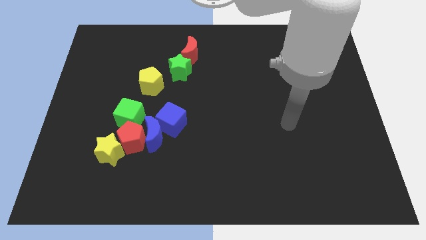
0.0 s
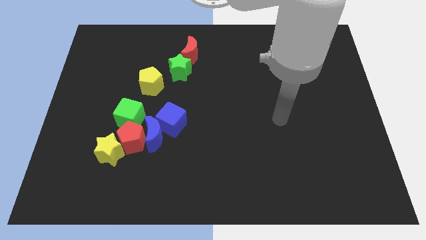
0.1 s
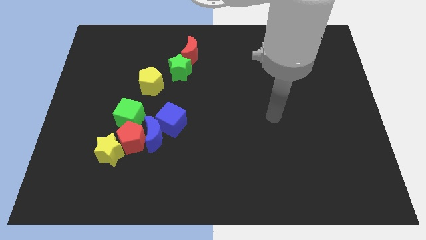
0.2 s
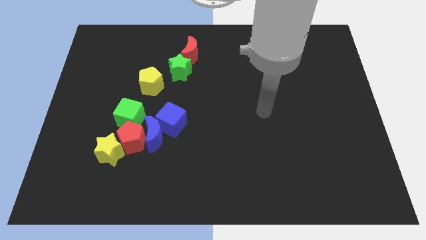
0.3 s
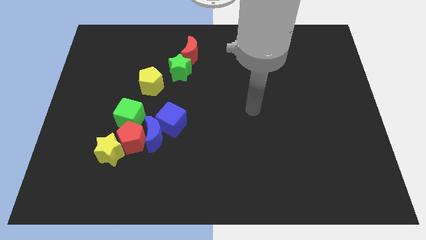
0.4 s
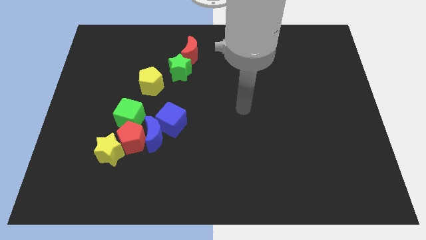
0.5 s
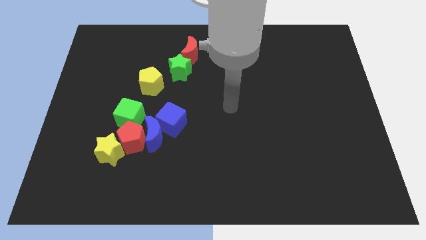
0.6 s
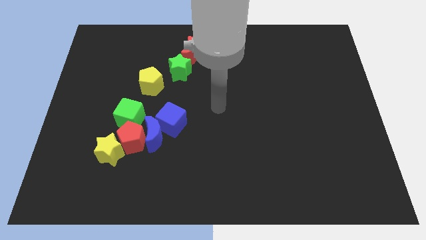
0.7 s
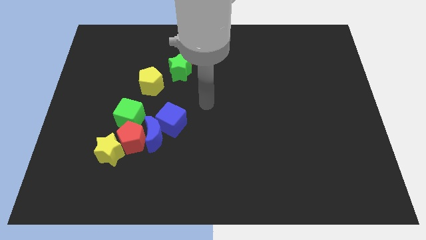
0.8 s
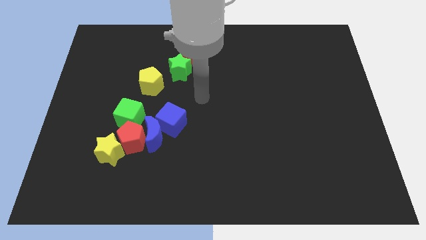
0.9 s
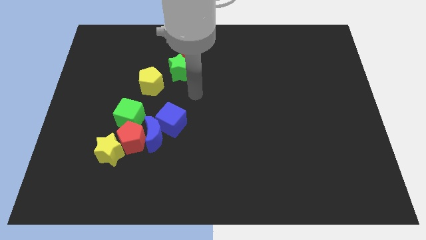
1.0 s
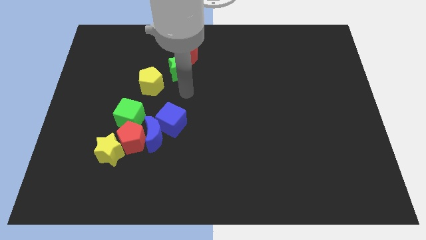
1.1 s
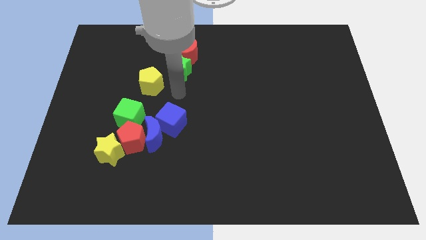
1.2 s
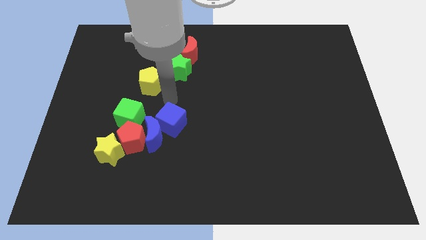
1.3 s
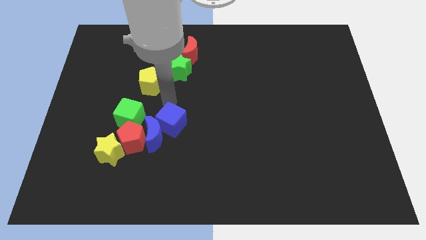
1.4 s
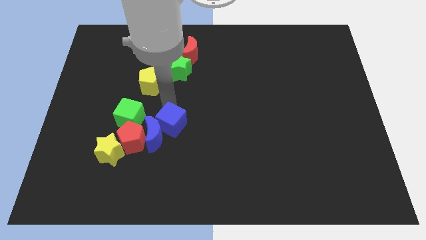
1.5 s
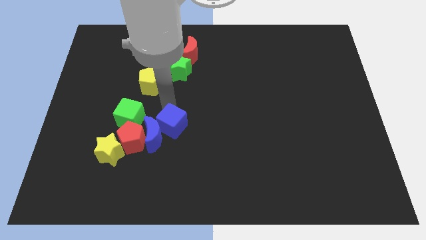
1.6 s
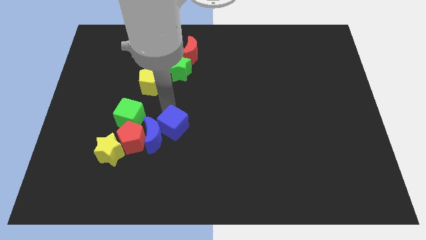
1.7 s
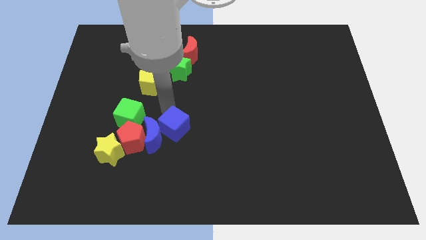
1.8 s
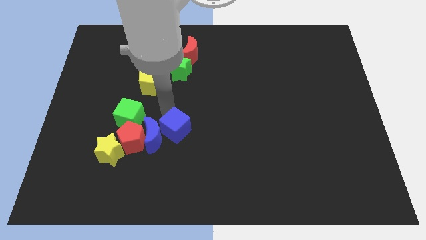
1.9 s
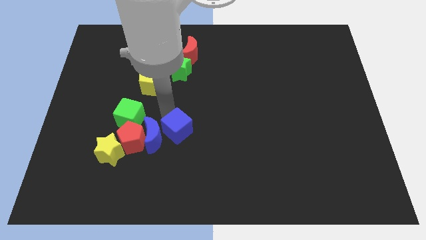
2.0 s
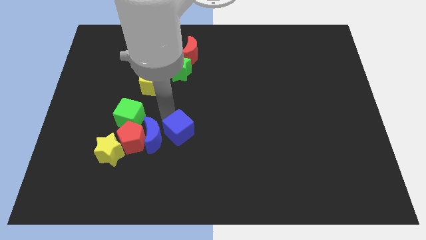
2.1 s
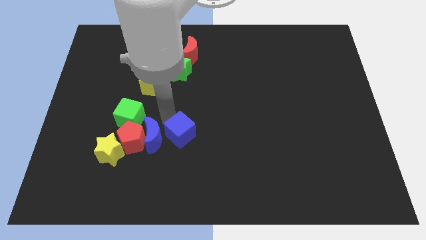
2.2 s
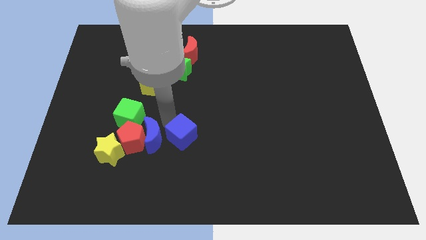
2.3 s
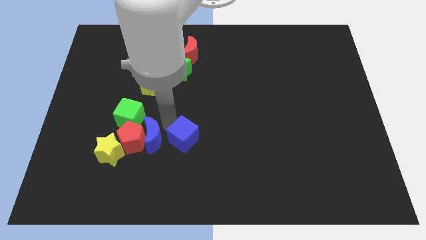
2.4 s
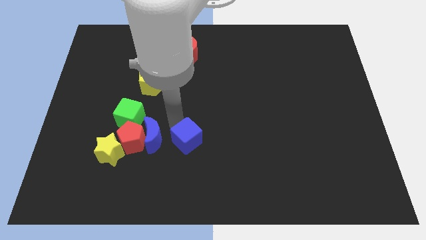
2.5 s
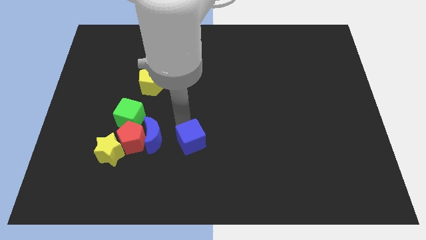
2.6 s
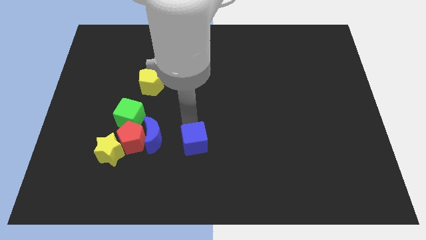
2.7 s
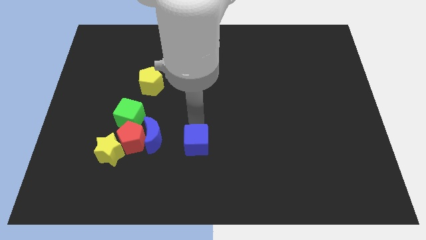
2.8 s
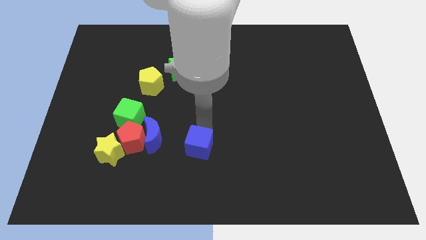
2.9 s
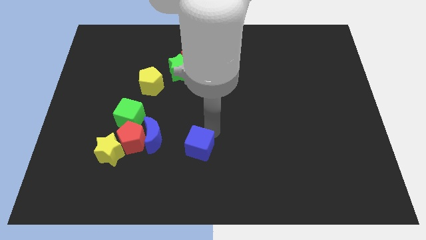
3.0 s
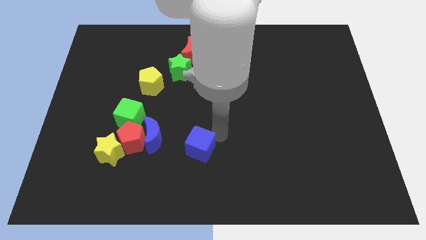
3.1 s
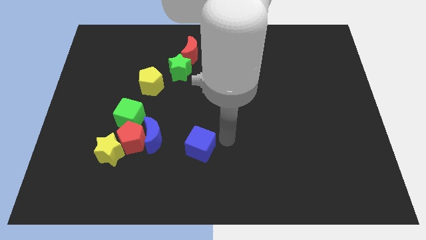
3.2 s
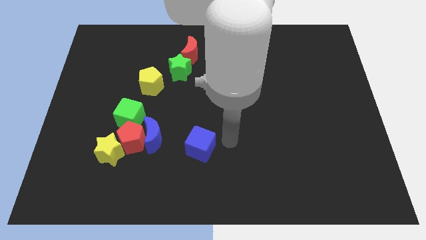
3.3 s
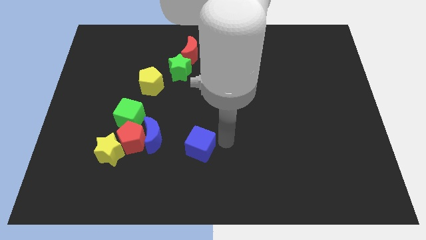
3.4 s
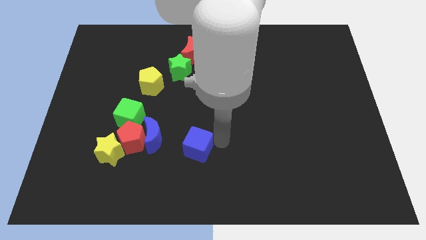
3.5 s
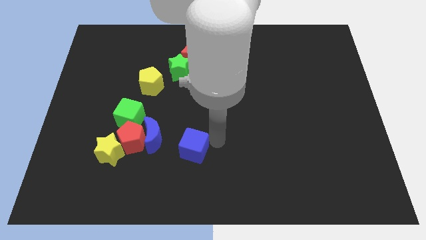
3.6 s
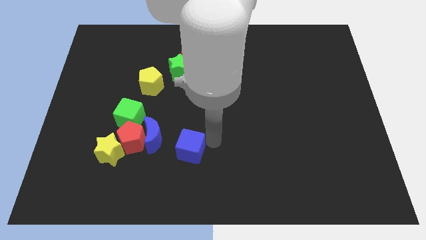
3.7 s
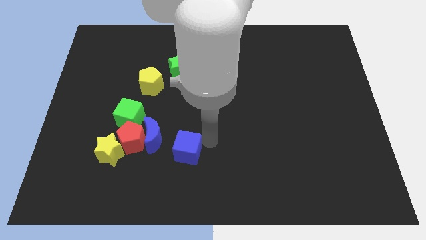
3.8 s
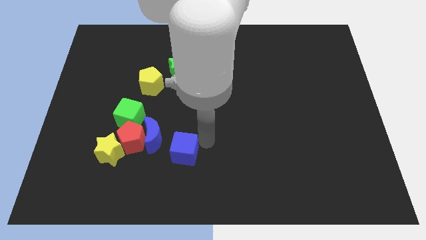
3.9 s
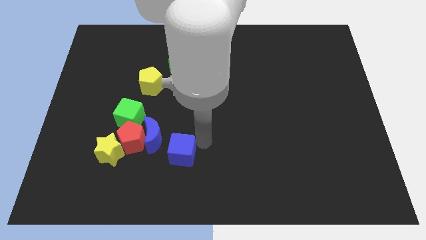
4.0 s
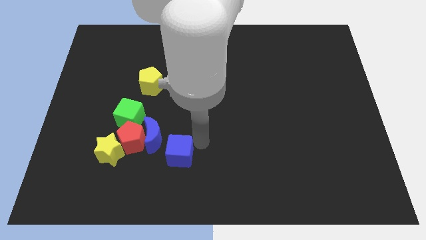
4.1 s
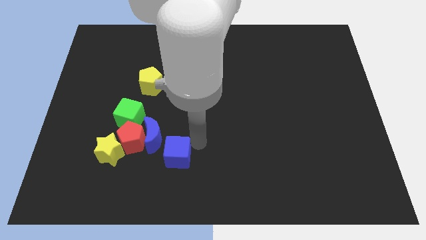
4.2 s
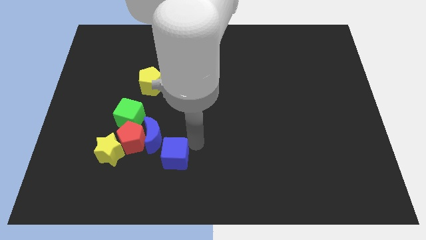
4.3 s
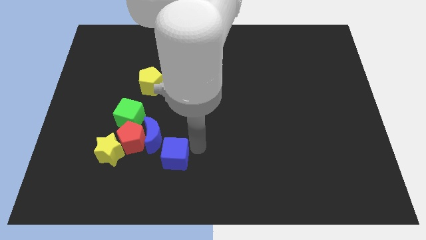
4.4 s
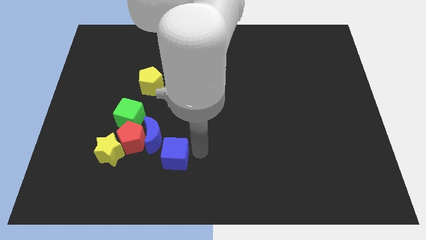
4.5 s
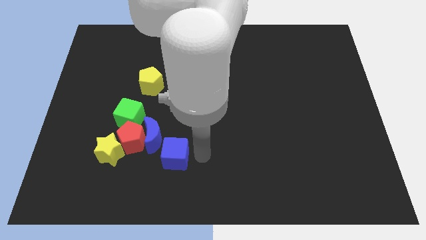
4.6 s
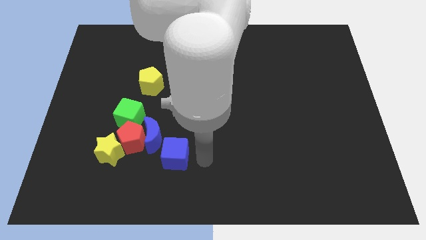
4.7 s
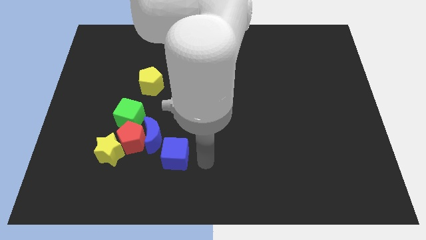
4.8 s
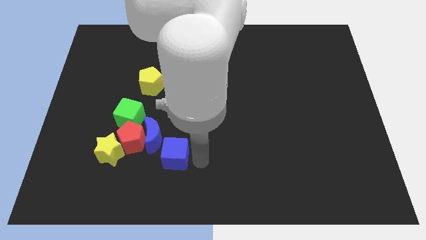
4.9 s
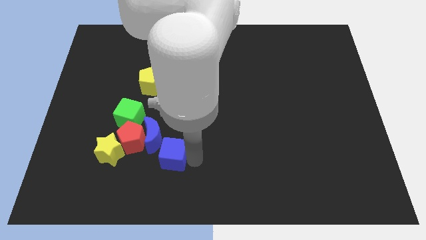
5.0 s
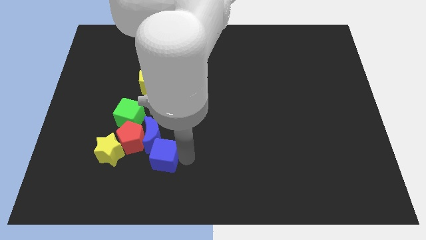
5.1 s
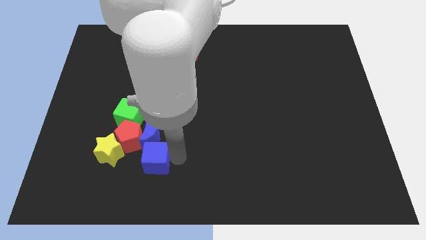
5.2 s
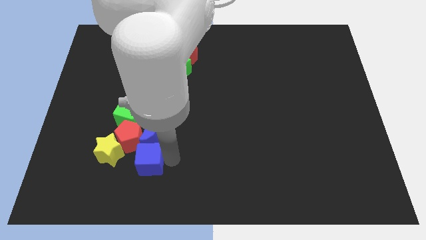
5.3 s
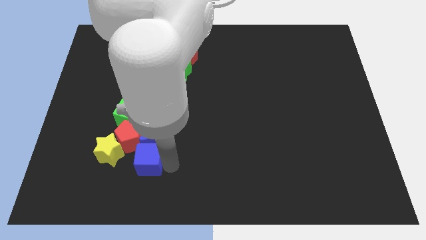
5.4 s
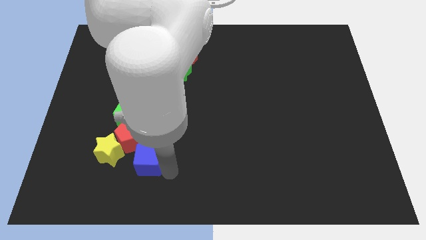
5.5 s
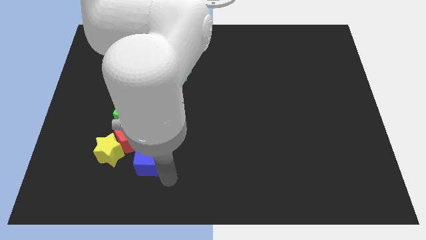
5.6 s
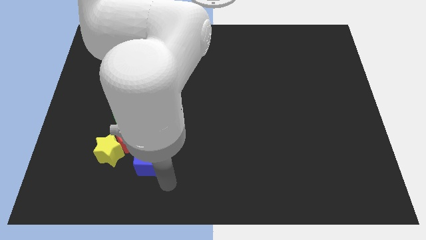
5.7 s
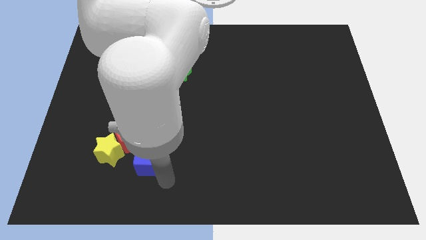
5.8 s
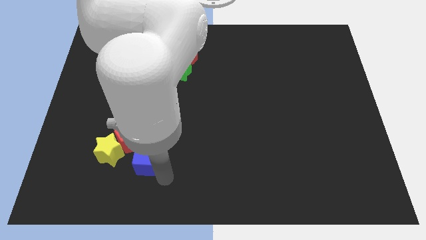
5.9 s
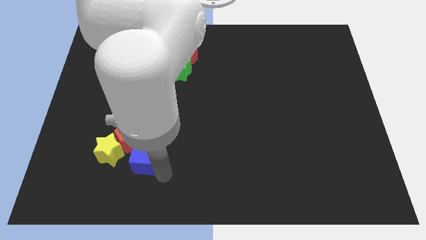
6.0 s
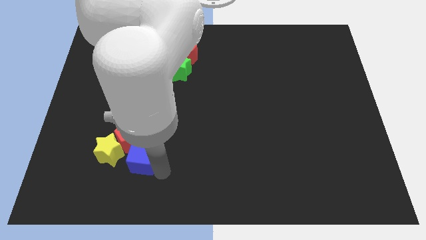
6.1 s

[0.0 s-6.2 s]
put the blue cube towards the red pentagon

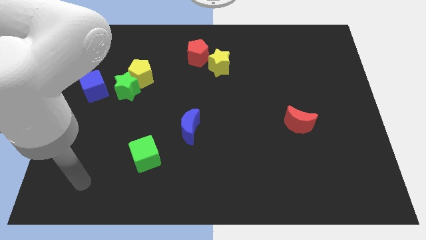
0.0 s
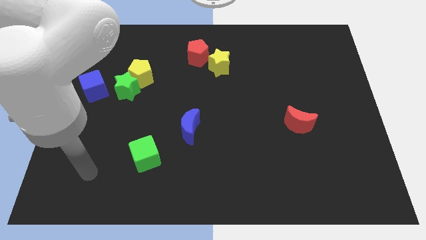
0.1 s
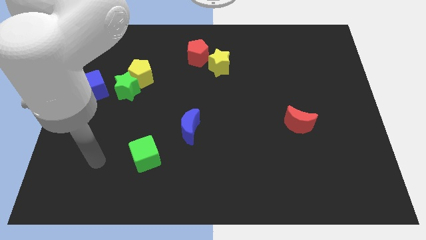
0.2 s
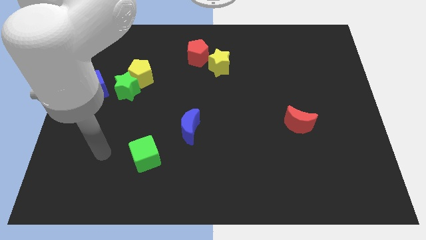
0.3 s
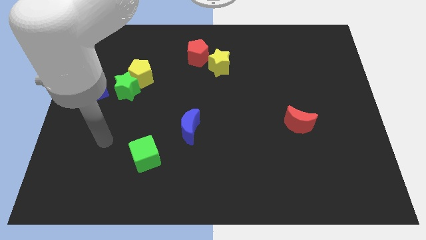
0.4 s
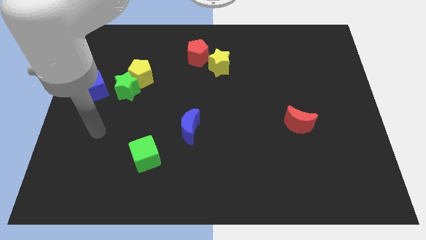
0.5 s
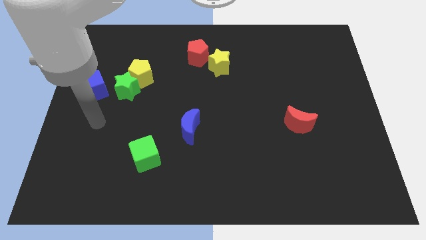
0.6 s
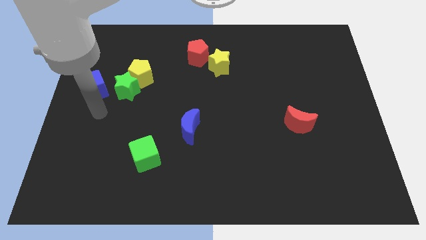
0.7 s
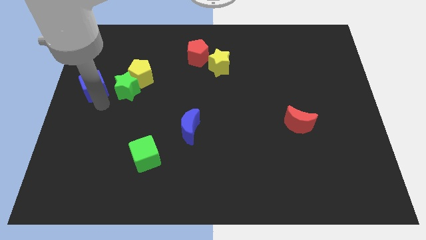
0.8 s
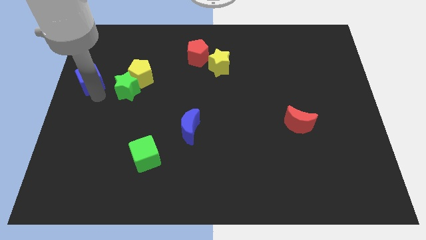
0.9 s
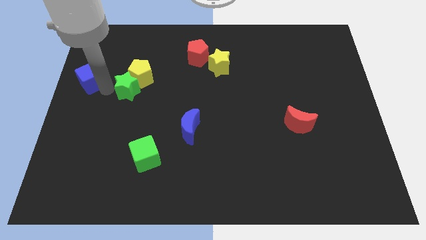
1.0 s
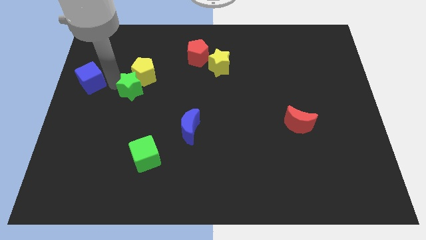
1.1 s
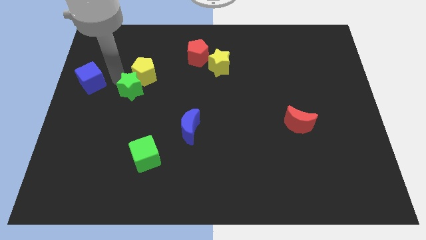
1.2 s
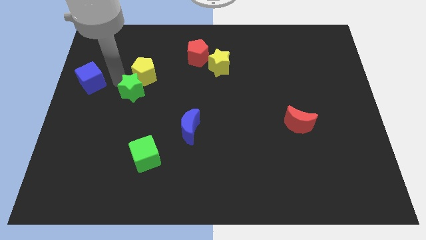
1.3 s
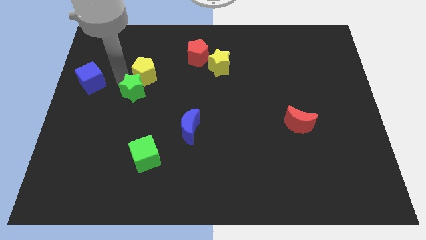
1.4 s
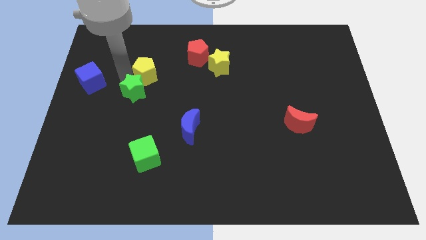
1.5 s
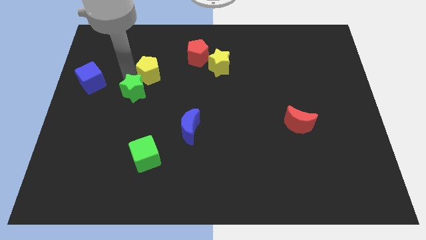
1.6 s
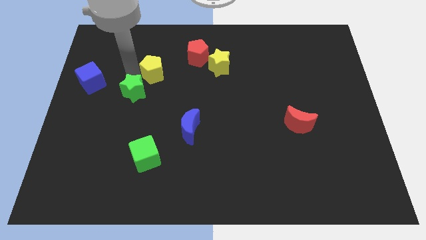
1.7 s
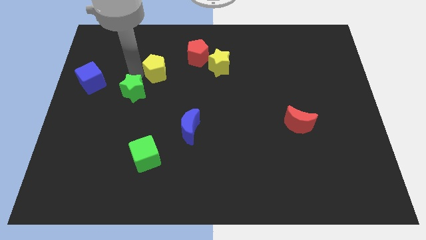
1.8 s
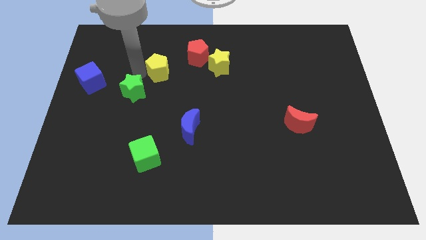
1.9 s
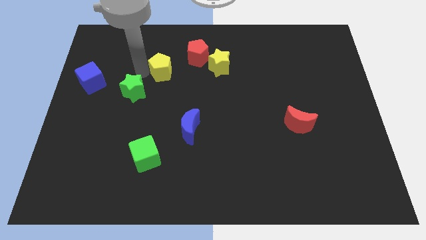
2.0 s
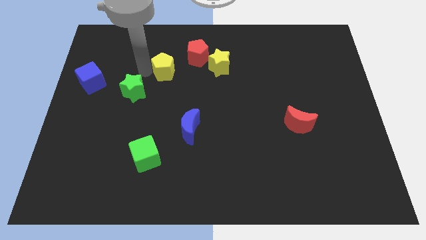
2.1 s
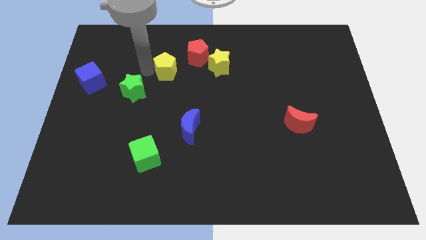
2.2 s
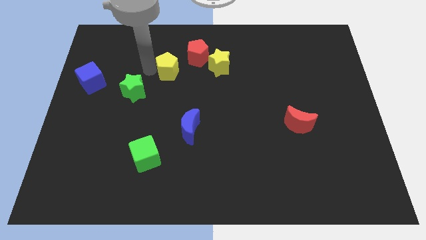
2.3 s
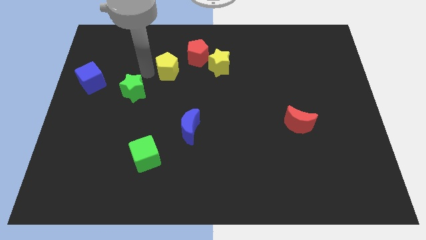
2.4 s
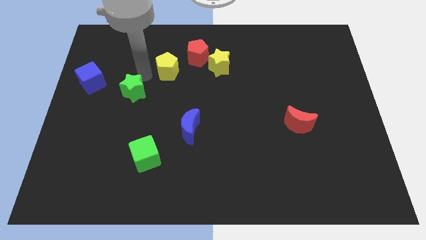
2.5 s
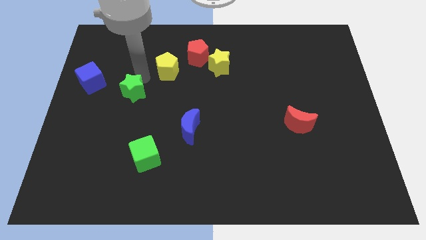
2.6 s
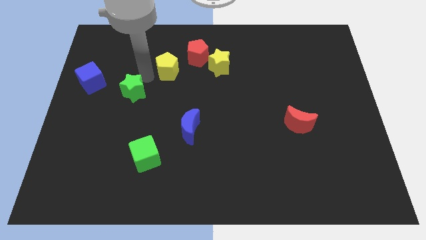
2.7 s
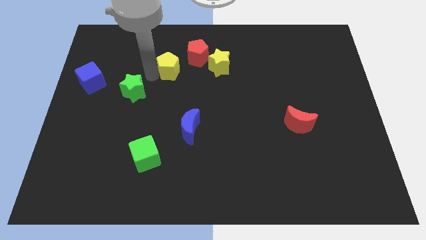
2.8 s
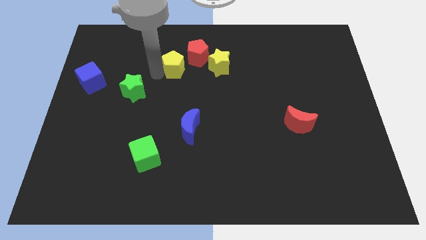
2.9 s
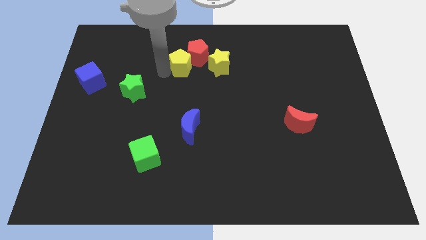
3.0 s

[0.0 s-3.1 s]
put the yellow pentagon close to the red pentagon
